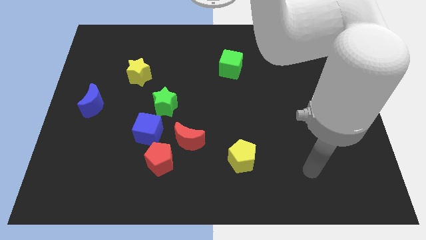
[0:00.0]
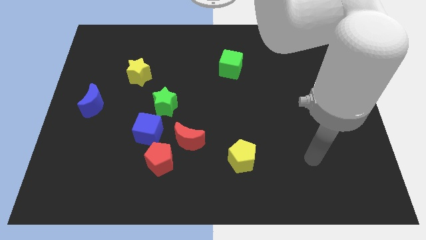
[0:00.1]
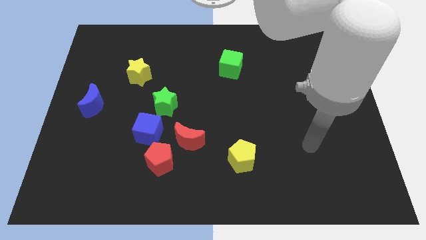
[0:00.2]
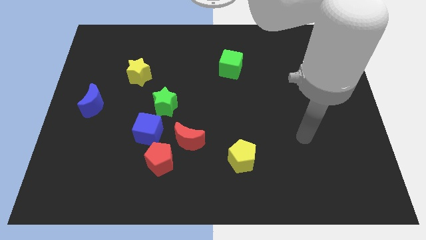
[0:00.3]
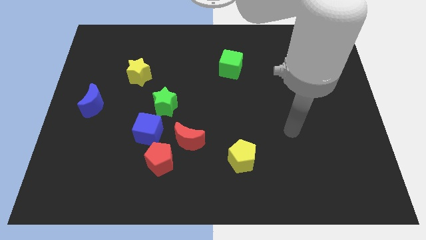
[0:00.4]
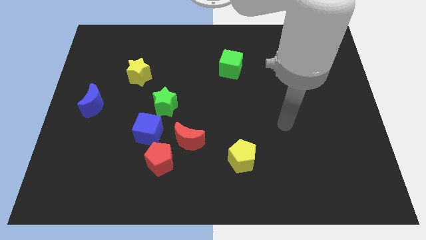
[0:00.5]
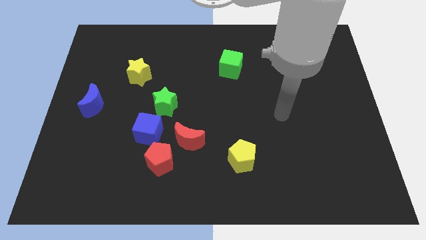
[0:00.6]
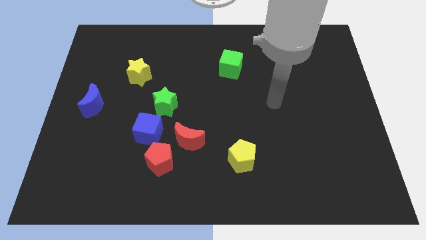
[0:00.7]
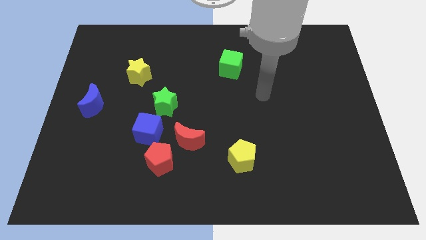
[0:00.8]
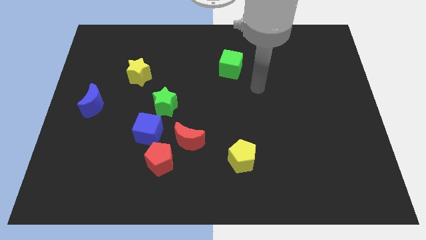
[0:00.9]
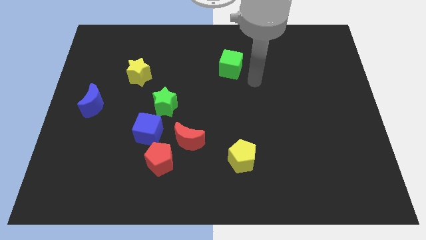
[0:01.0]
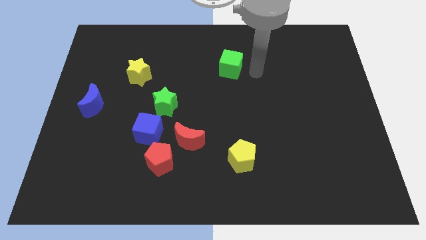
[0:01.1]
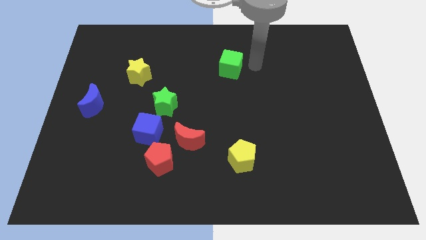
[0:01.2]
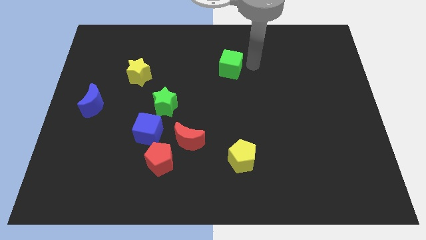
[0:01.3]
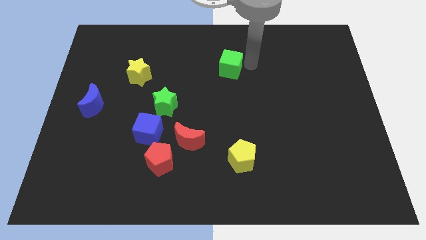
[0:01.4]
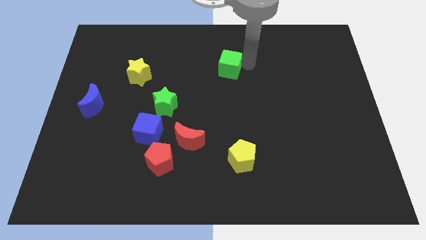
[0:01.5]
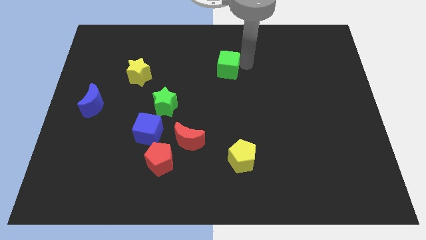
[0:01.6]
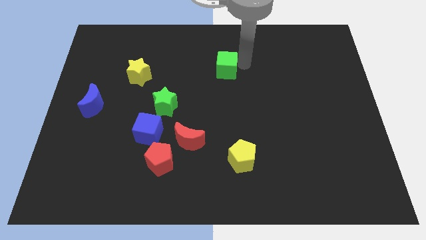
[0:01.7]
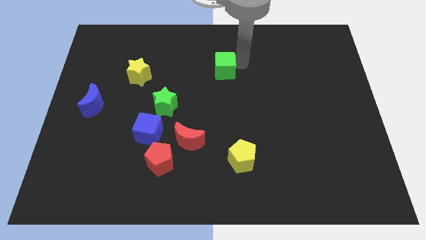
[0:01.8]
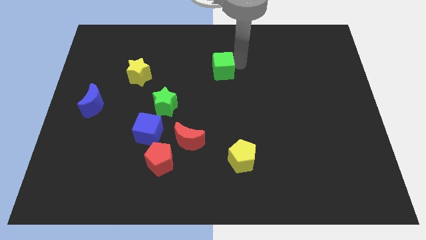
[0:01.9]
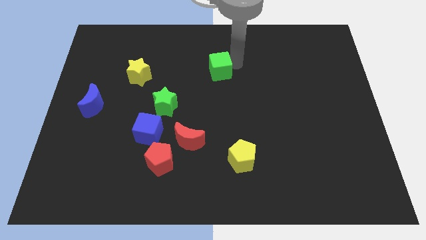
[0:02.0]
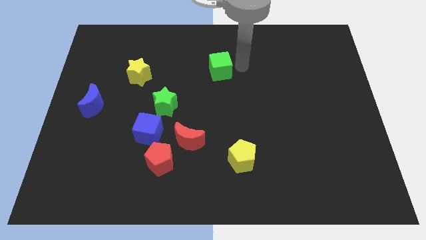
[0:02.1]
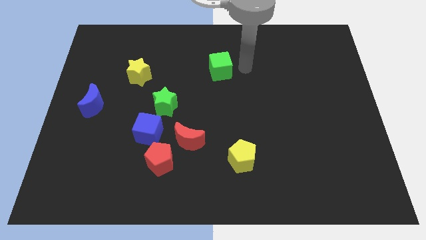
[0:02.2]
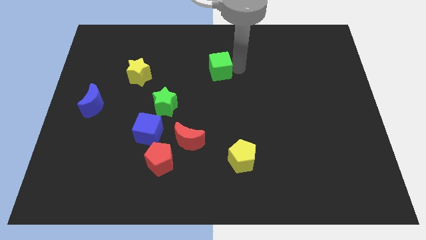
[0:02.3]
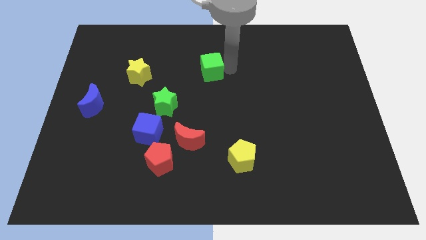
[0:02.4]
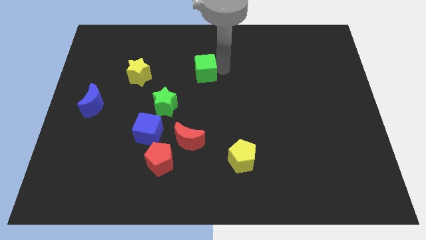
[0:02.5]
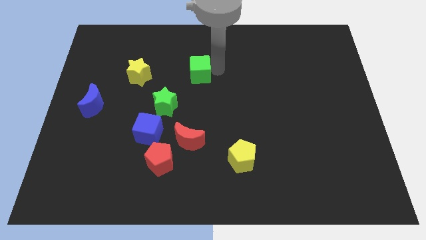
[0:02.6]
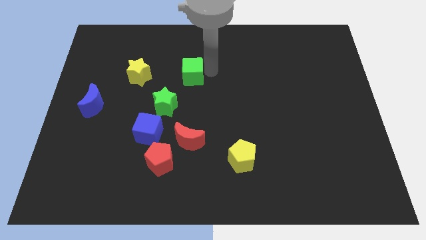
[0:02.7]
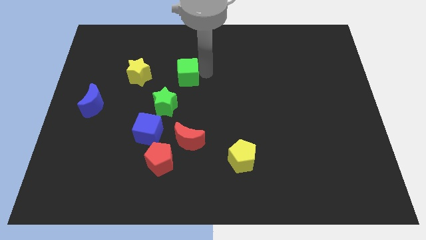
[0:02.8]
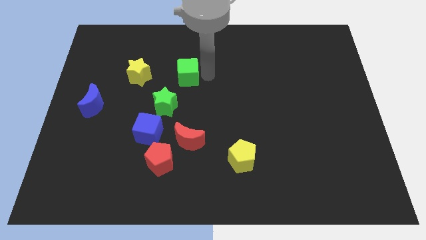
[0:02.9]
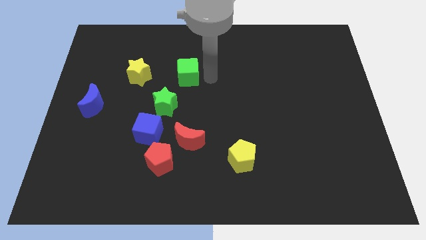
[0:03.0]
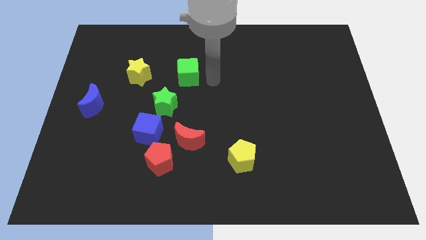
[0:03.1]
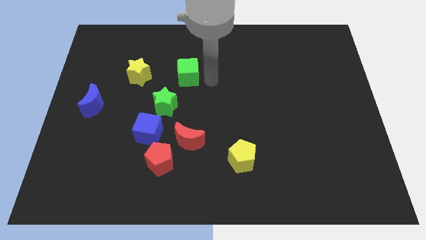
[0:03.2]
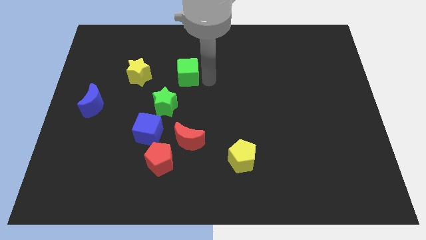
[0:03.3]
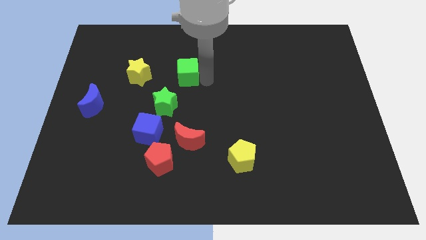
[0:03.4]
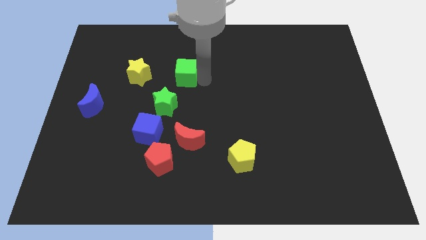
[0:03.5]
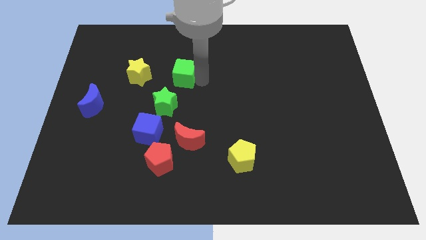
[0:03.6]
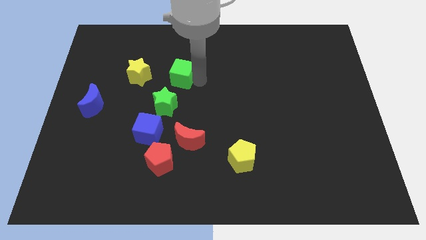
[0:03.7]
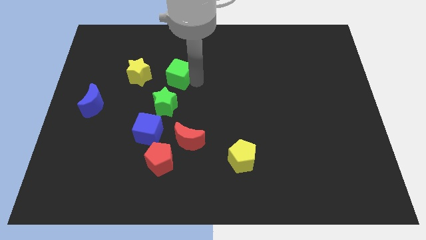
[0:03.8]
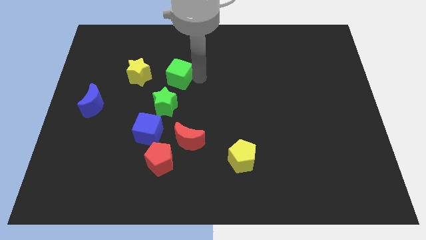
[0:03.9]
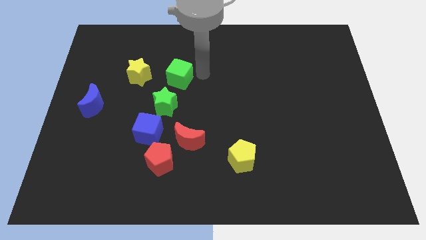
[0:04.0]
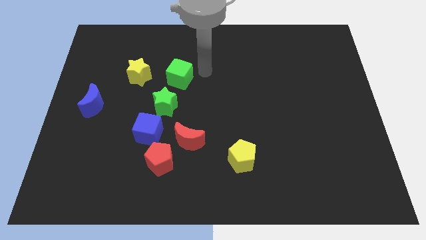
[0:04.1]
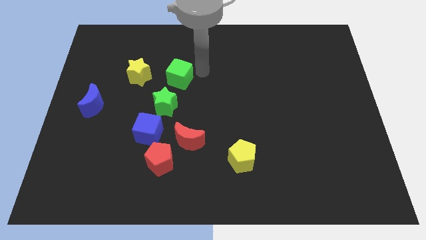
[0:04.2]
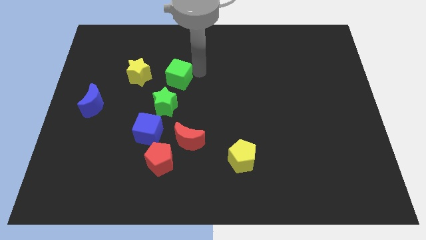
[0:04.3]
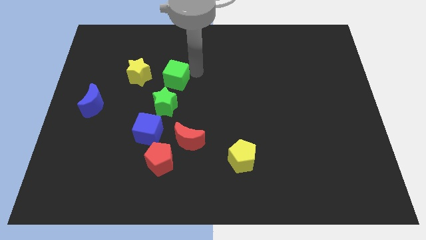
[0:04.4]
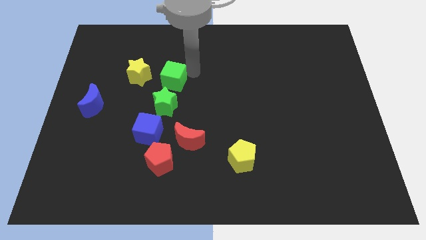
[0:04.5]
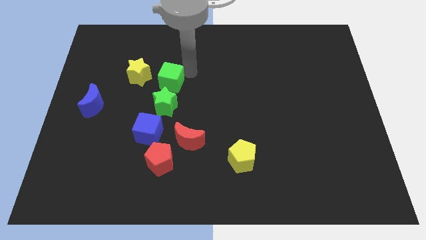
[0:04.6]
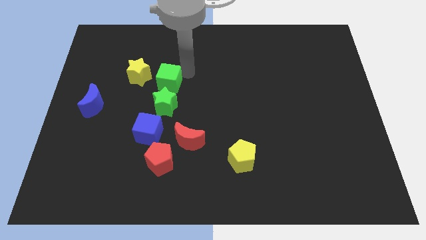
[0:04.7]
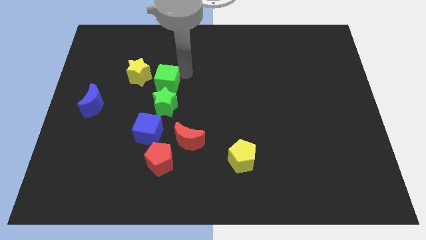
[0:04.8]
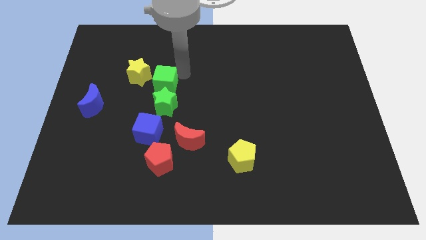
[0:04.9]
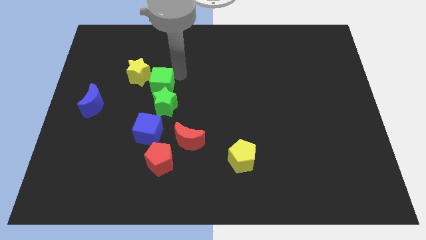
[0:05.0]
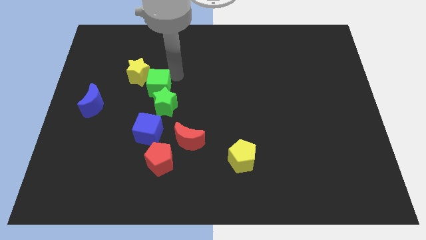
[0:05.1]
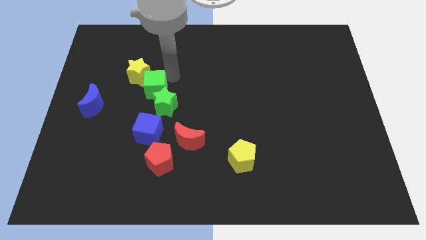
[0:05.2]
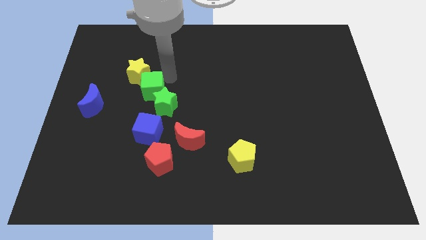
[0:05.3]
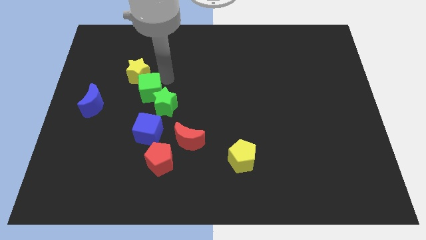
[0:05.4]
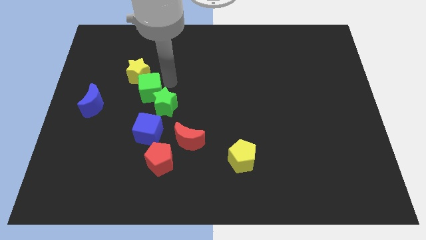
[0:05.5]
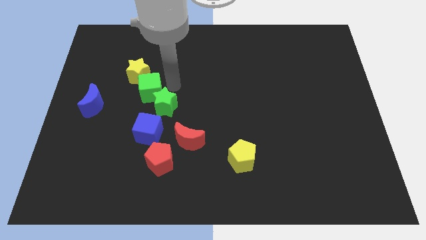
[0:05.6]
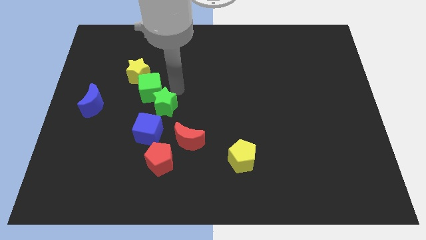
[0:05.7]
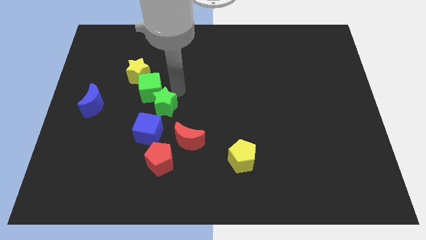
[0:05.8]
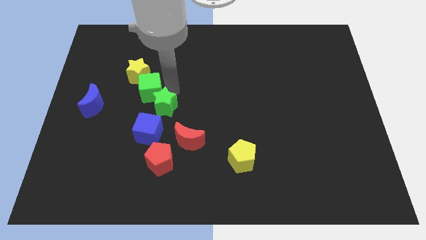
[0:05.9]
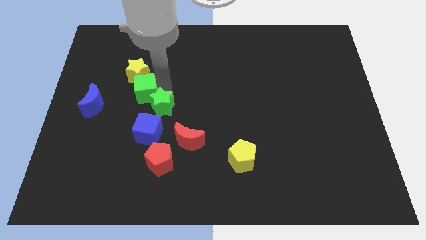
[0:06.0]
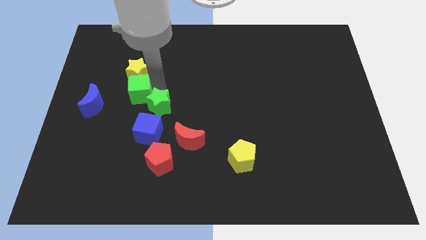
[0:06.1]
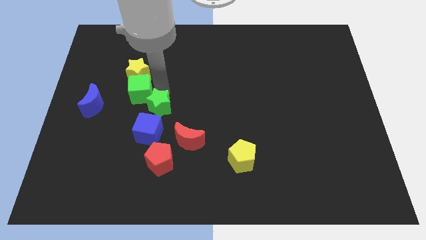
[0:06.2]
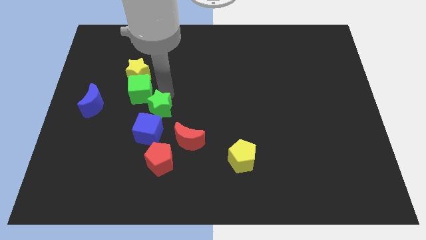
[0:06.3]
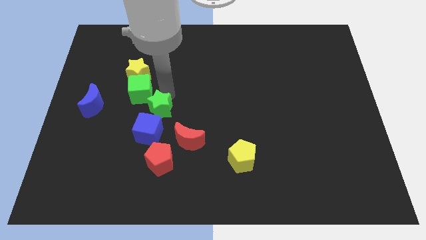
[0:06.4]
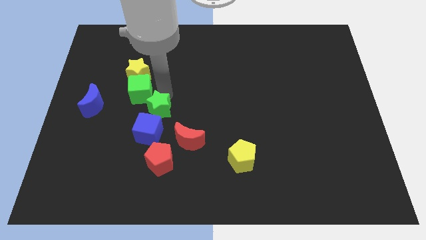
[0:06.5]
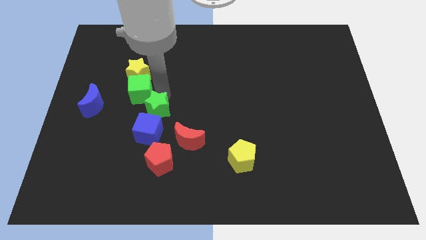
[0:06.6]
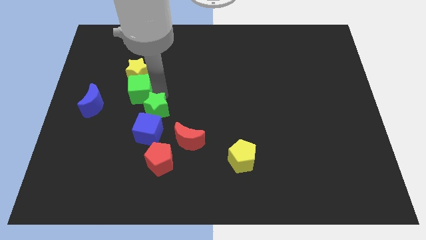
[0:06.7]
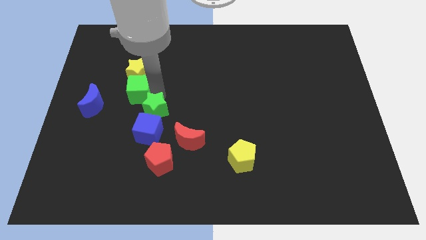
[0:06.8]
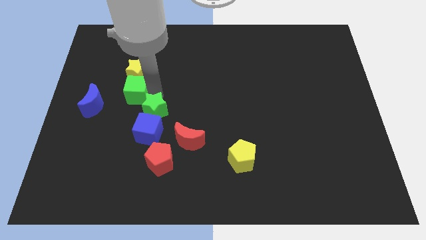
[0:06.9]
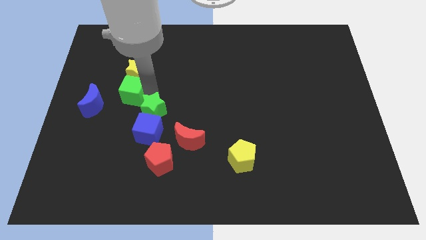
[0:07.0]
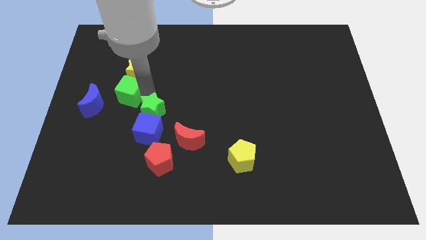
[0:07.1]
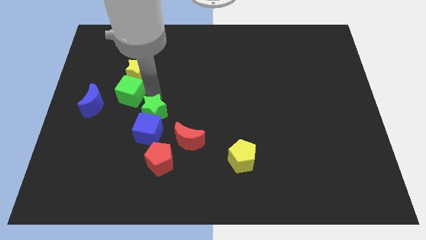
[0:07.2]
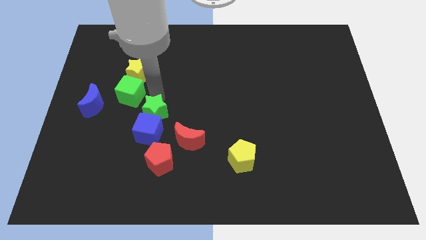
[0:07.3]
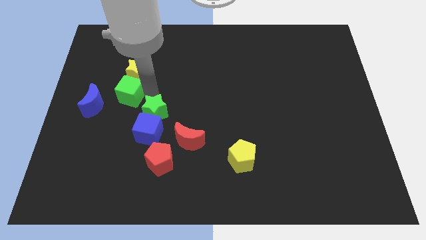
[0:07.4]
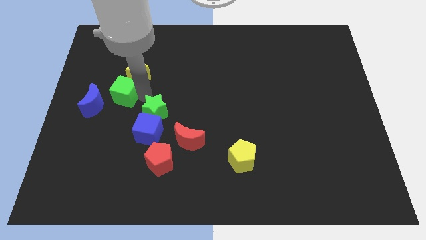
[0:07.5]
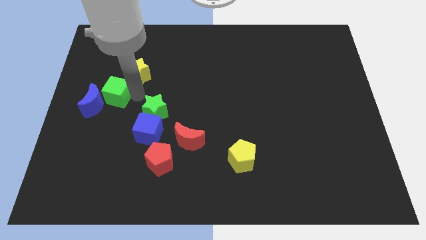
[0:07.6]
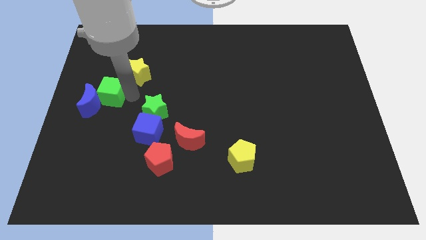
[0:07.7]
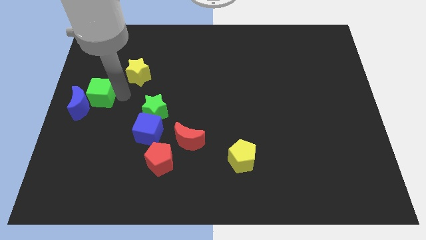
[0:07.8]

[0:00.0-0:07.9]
slide the green cube to the left side
